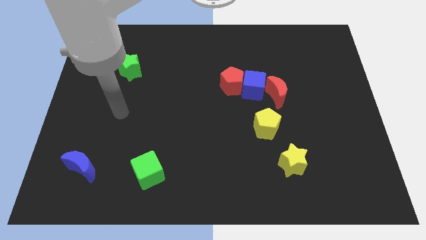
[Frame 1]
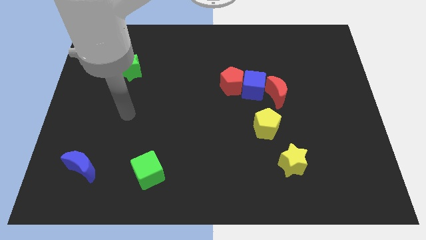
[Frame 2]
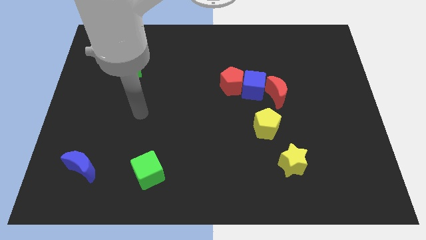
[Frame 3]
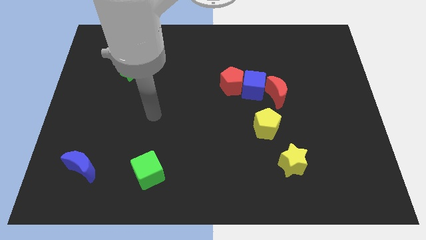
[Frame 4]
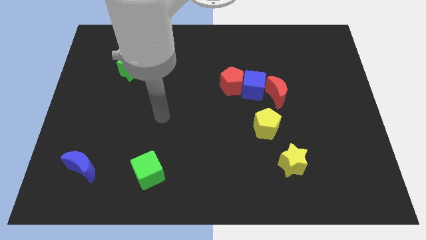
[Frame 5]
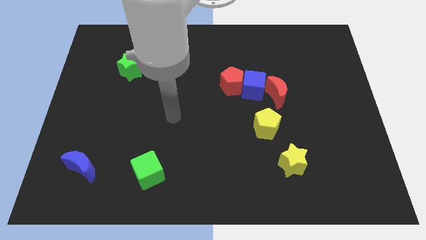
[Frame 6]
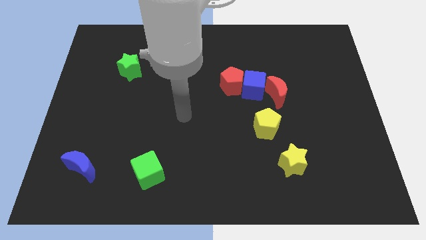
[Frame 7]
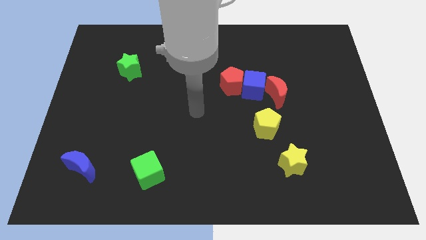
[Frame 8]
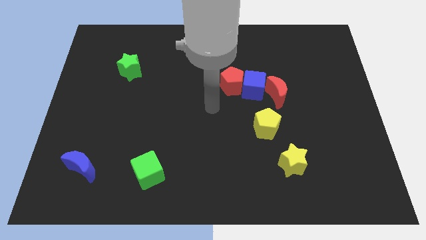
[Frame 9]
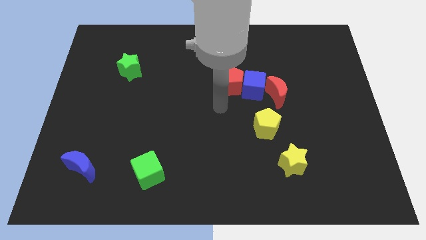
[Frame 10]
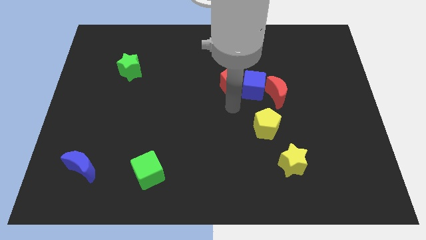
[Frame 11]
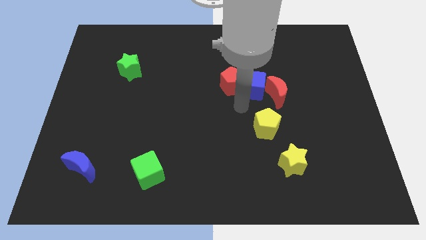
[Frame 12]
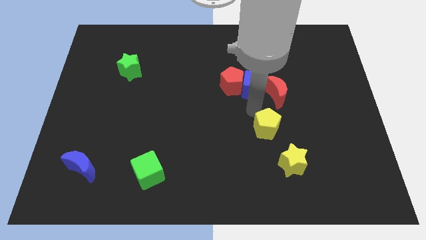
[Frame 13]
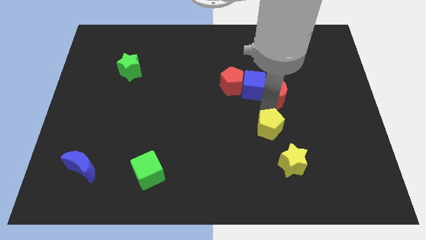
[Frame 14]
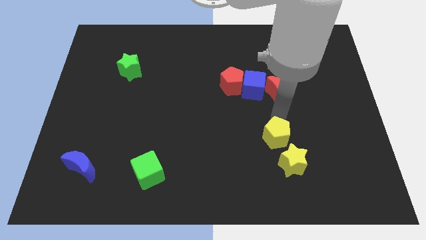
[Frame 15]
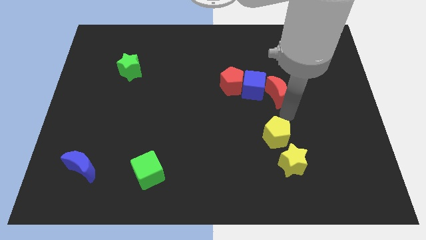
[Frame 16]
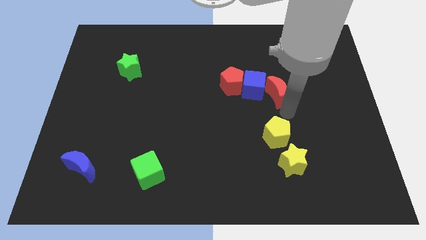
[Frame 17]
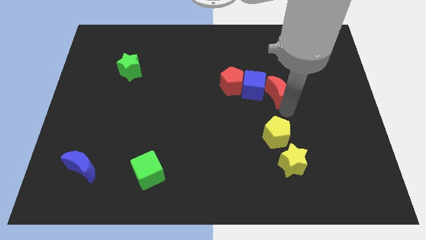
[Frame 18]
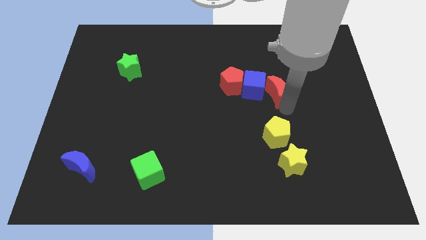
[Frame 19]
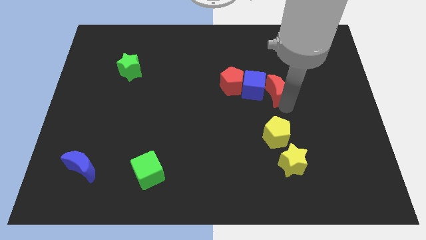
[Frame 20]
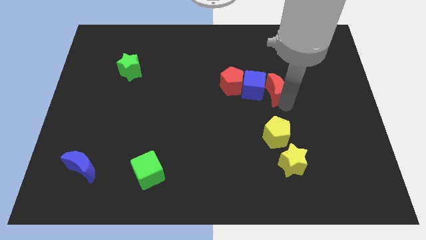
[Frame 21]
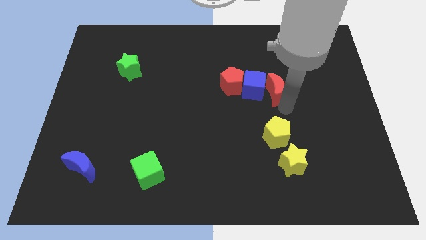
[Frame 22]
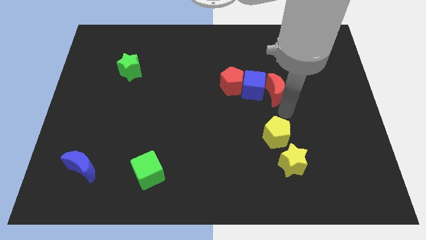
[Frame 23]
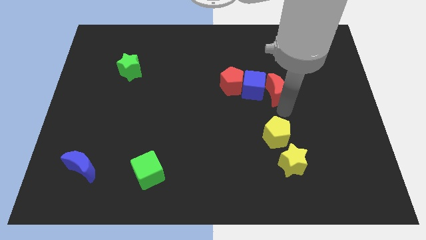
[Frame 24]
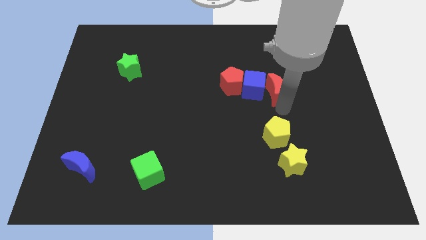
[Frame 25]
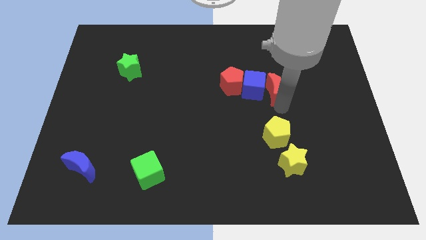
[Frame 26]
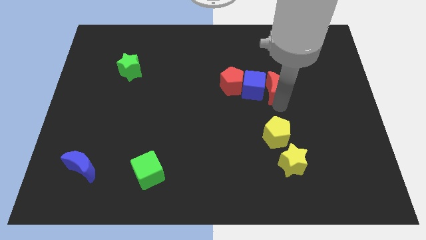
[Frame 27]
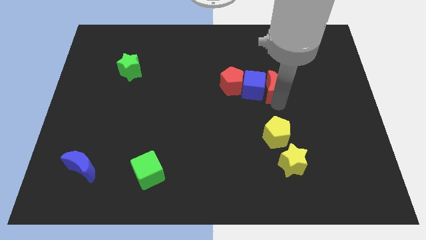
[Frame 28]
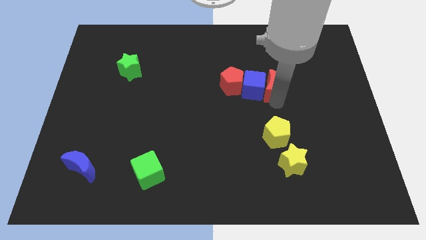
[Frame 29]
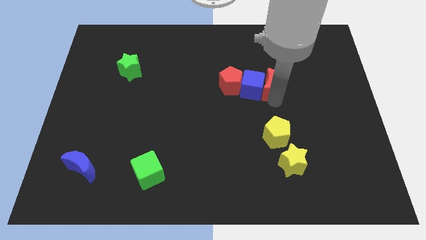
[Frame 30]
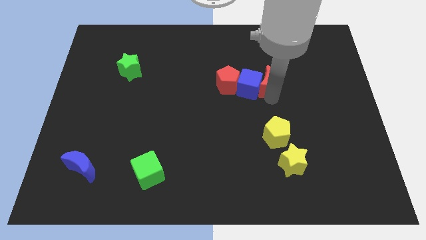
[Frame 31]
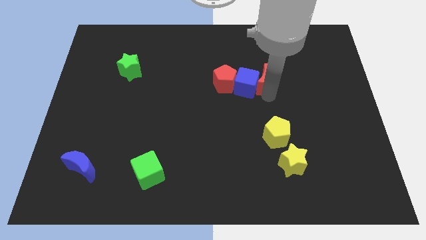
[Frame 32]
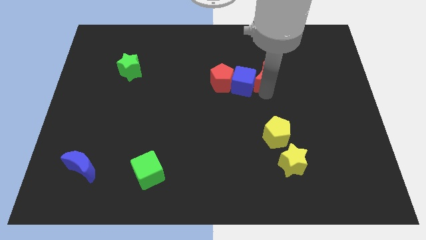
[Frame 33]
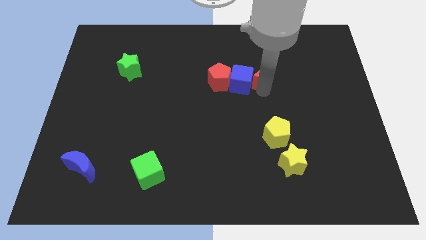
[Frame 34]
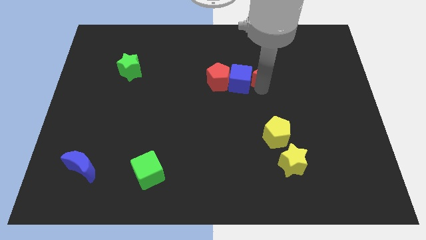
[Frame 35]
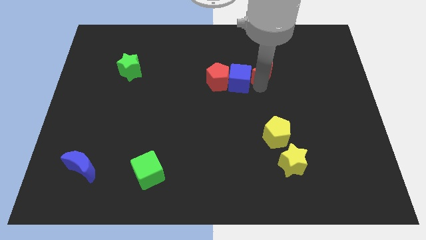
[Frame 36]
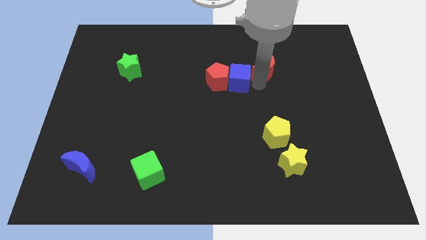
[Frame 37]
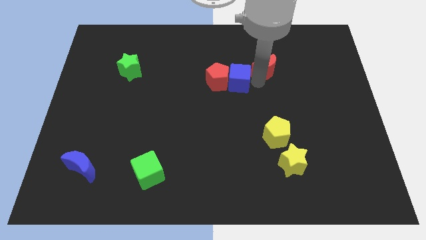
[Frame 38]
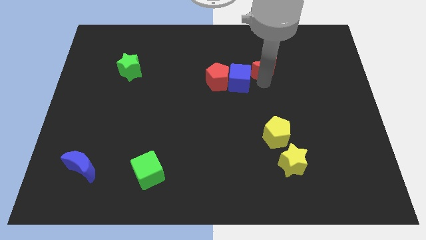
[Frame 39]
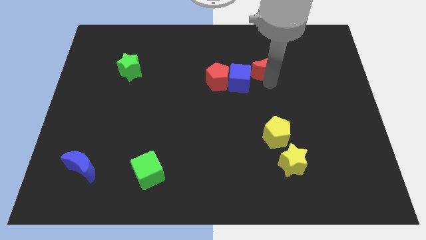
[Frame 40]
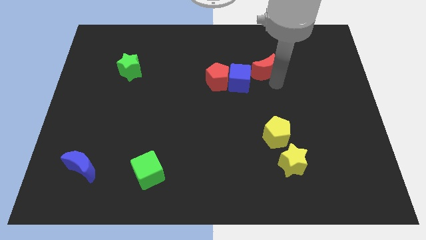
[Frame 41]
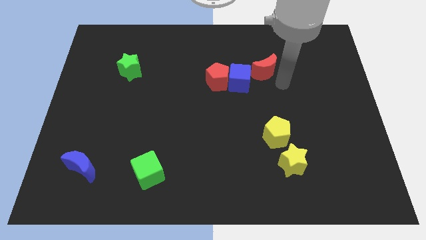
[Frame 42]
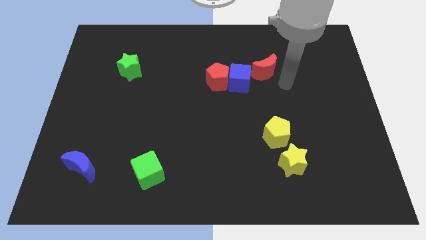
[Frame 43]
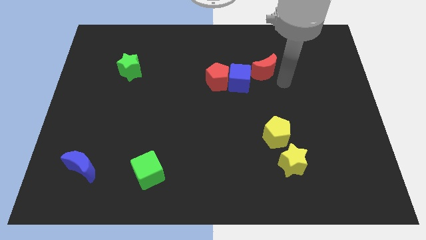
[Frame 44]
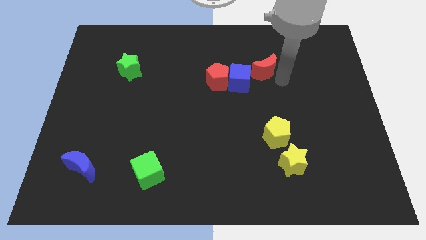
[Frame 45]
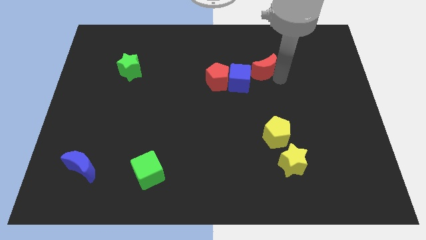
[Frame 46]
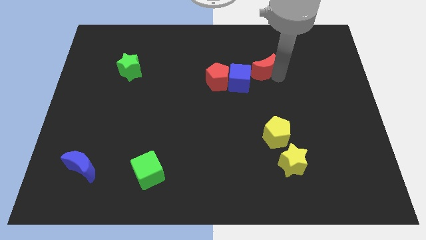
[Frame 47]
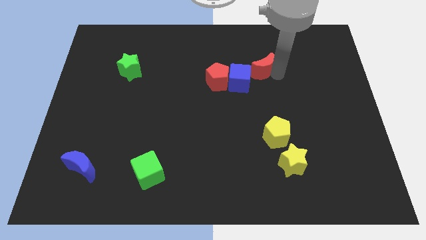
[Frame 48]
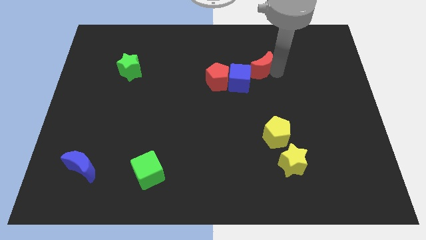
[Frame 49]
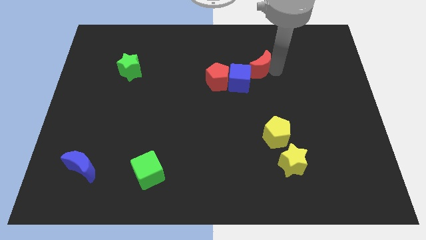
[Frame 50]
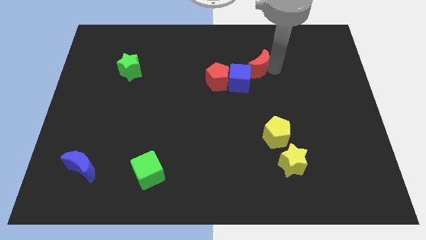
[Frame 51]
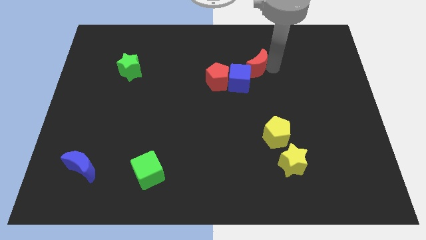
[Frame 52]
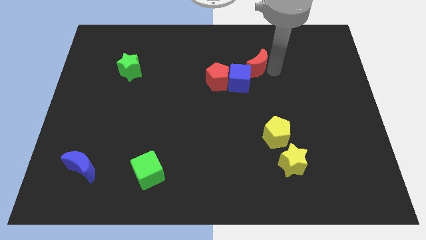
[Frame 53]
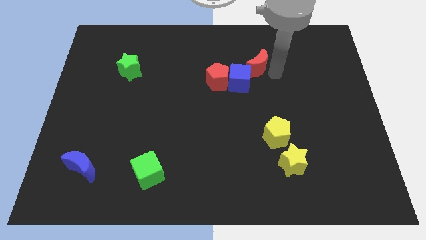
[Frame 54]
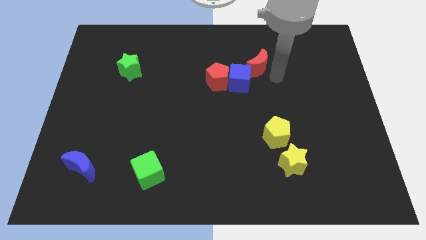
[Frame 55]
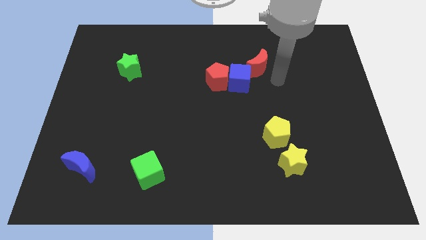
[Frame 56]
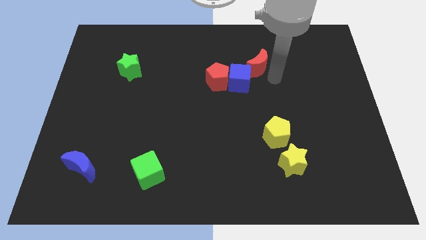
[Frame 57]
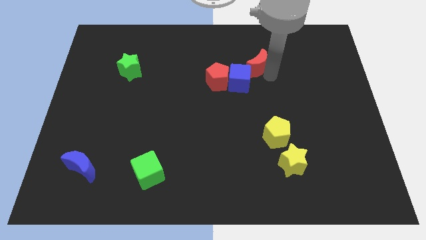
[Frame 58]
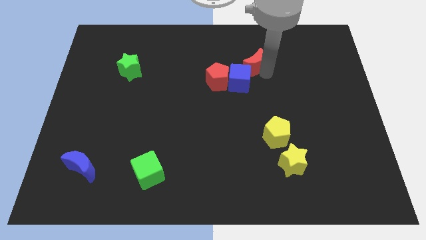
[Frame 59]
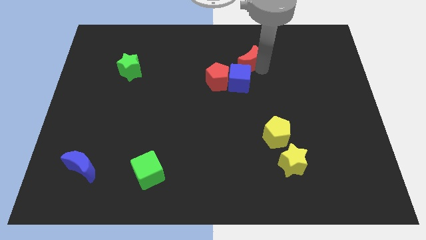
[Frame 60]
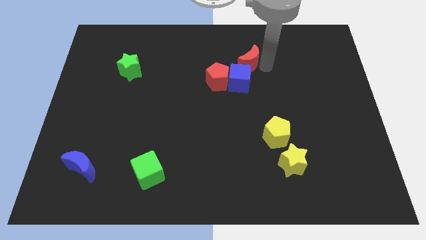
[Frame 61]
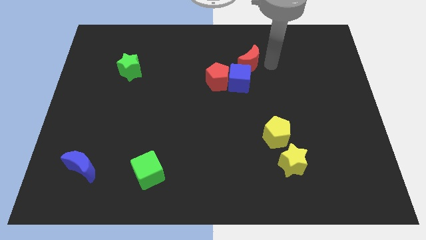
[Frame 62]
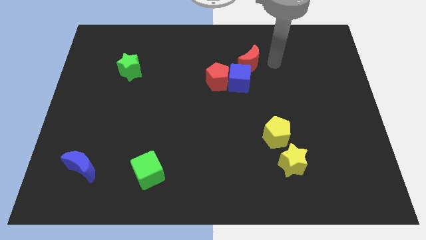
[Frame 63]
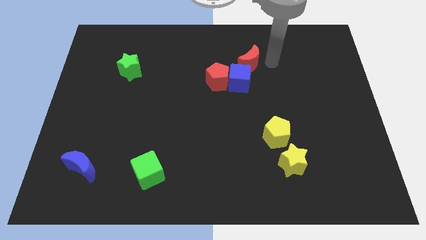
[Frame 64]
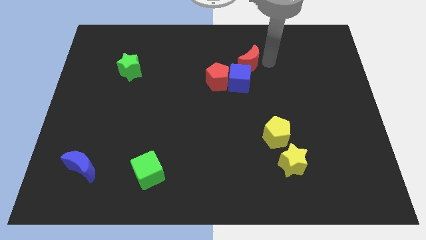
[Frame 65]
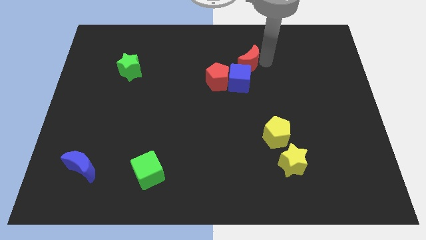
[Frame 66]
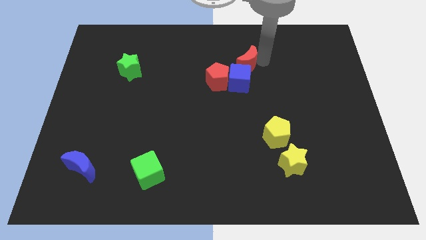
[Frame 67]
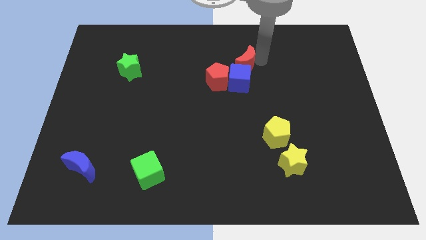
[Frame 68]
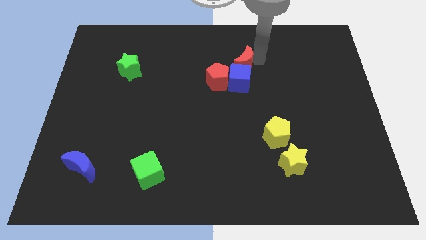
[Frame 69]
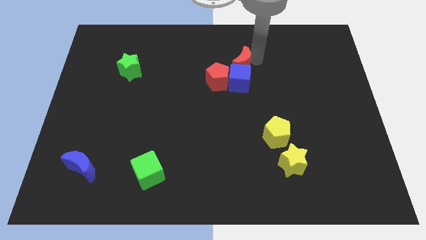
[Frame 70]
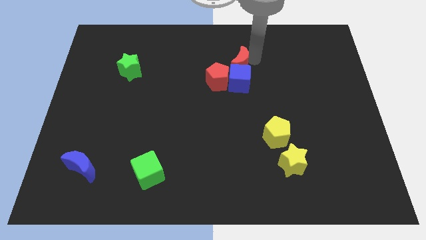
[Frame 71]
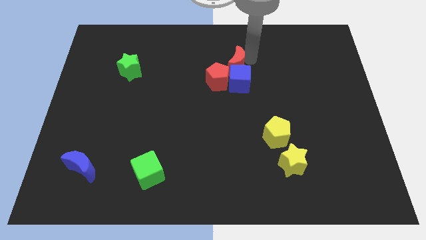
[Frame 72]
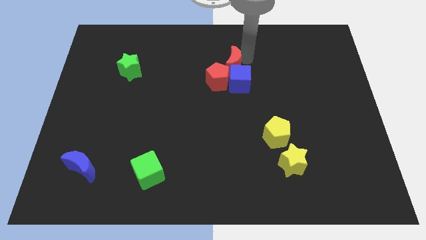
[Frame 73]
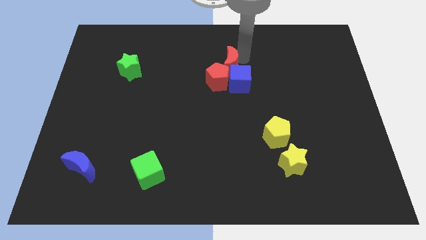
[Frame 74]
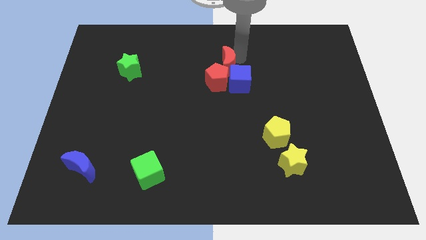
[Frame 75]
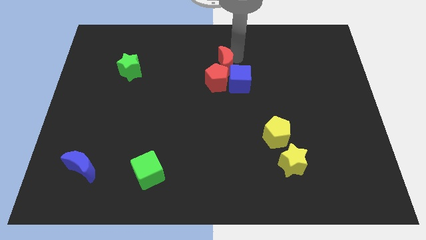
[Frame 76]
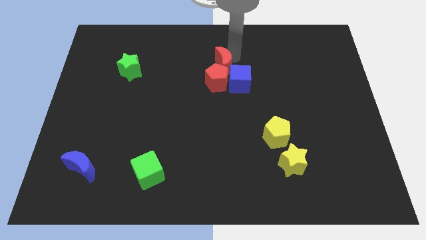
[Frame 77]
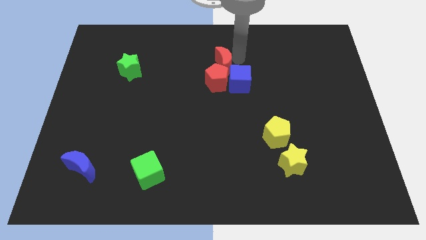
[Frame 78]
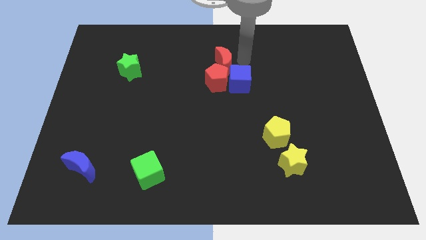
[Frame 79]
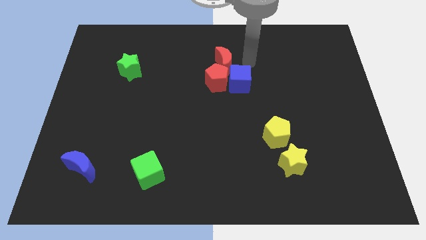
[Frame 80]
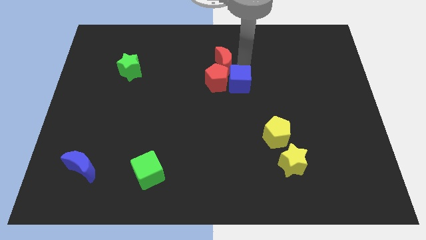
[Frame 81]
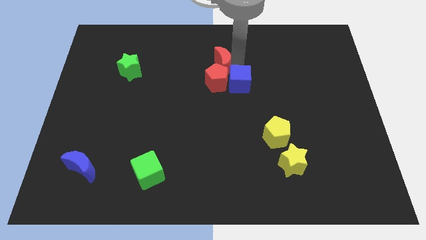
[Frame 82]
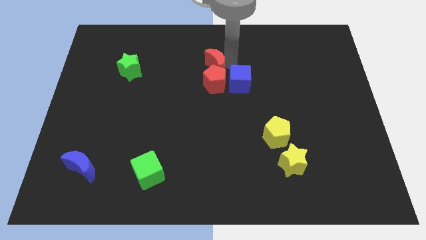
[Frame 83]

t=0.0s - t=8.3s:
move the red moon to the top left of the red pentagon

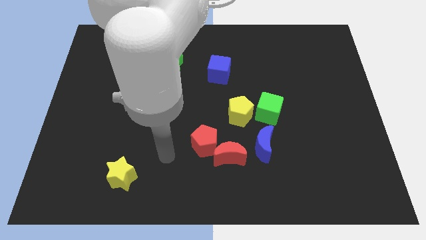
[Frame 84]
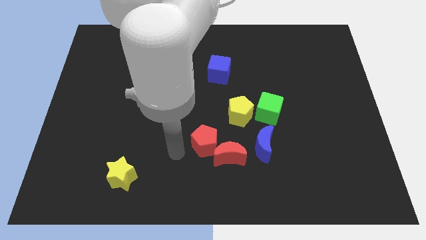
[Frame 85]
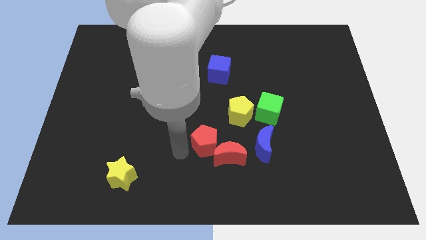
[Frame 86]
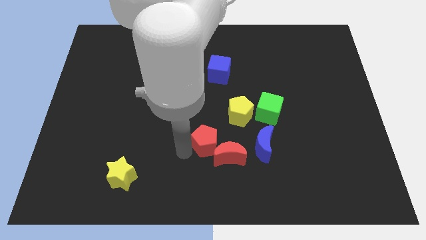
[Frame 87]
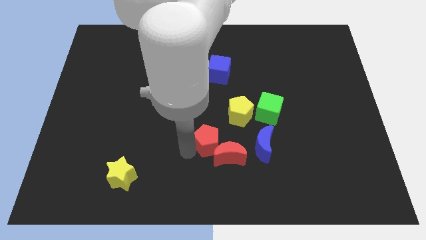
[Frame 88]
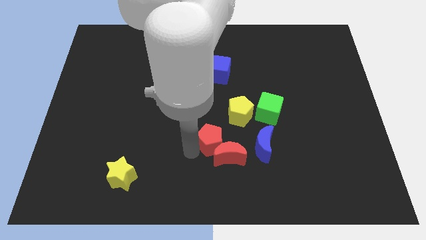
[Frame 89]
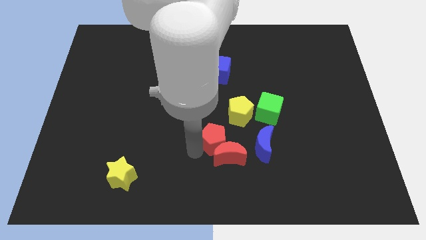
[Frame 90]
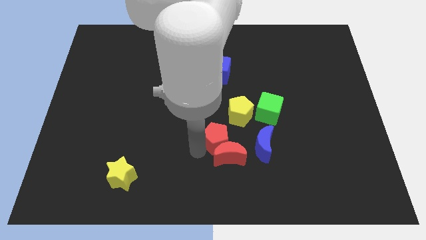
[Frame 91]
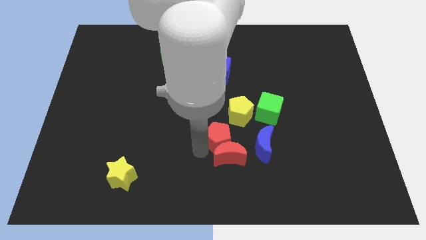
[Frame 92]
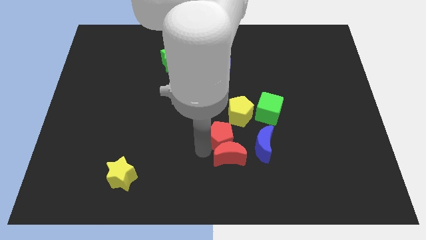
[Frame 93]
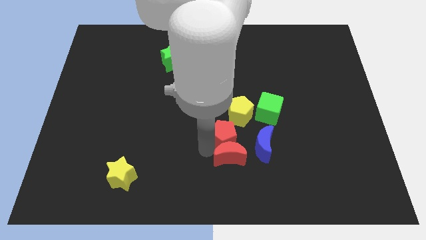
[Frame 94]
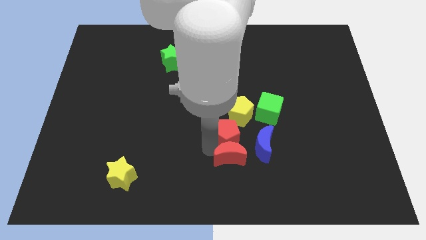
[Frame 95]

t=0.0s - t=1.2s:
move the red pentagon diagonally down and to the left of the green cube
